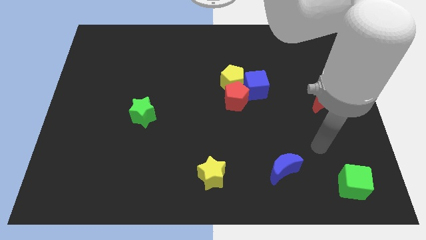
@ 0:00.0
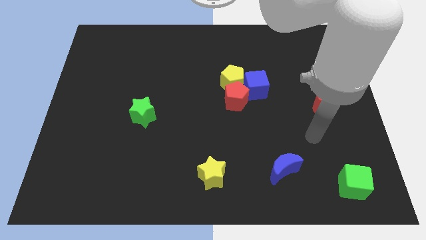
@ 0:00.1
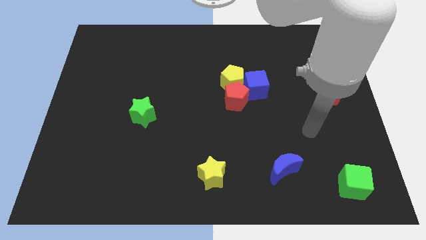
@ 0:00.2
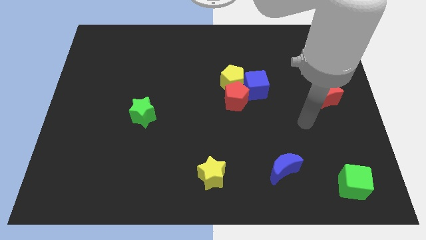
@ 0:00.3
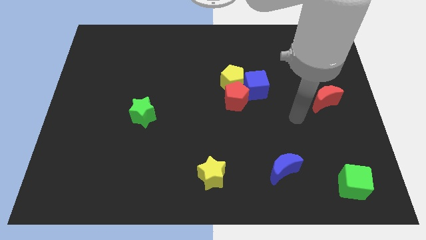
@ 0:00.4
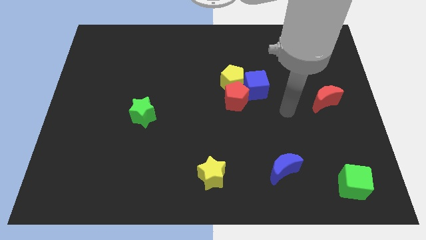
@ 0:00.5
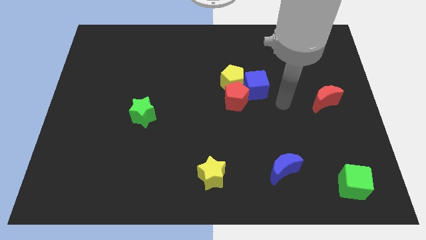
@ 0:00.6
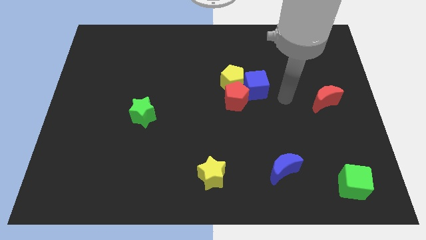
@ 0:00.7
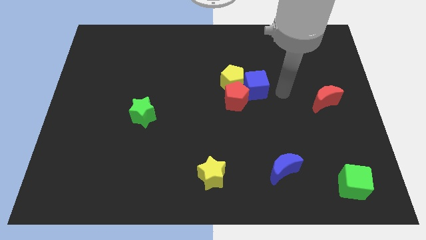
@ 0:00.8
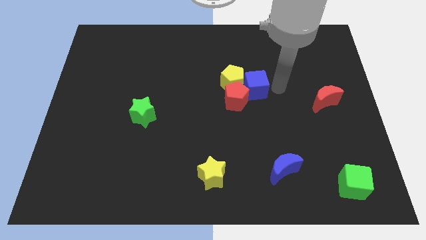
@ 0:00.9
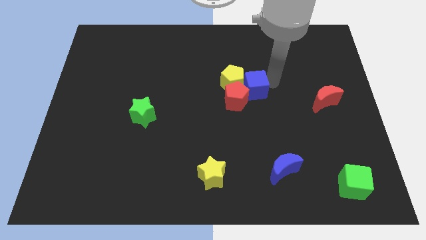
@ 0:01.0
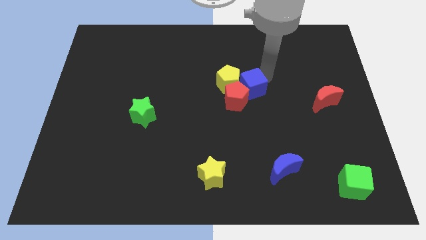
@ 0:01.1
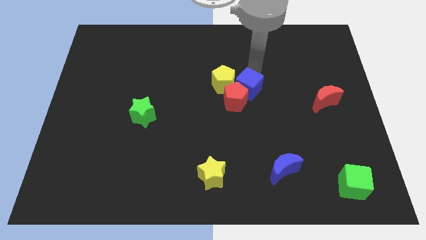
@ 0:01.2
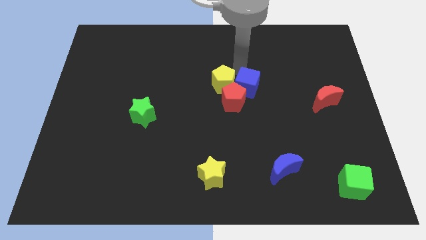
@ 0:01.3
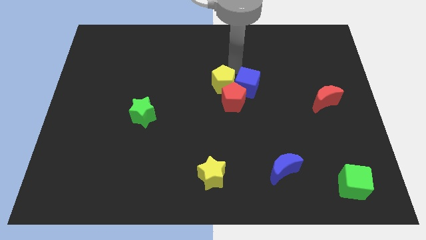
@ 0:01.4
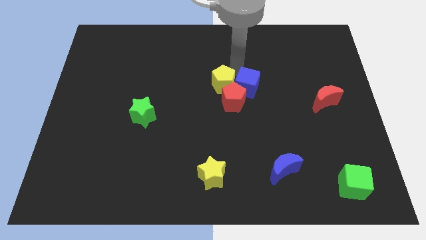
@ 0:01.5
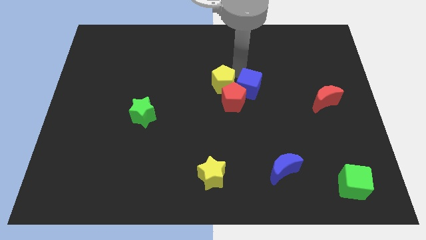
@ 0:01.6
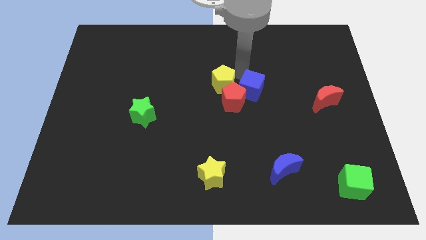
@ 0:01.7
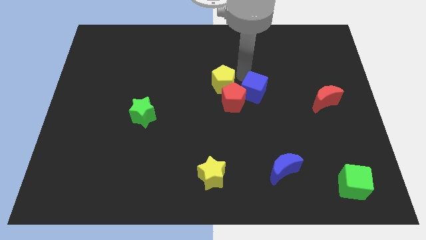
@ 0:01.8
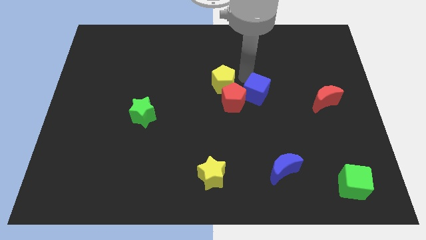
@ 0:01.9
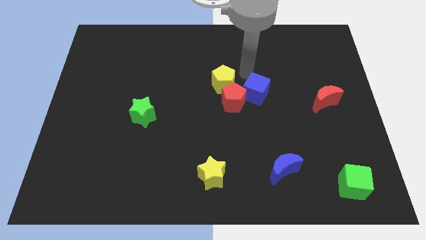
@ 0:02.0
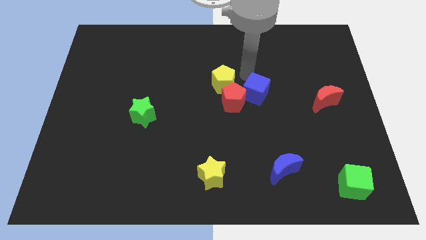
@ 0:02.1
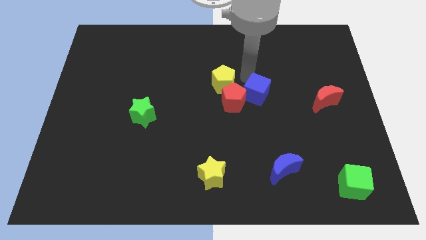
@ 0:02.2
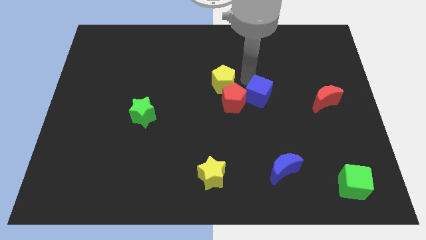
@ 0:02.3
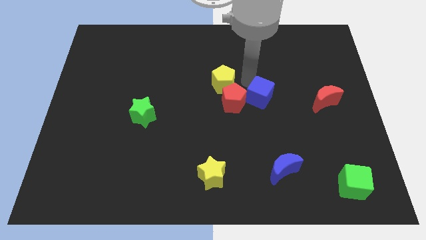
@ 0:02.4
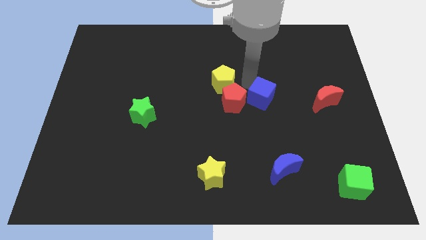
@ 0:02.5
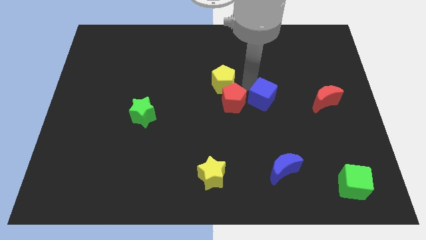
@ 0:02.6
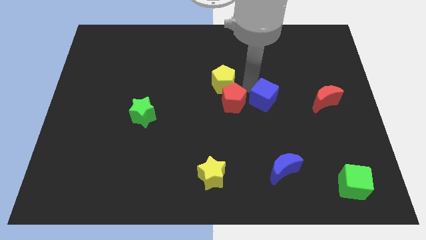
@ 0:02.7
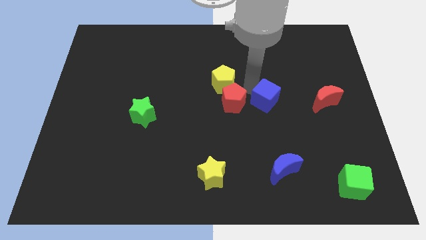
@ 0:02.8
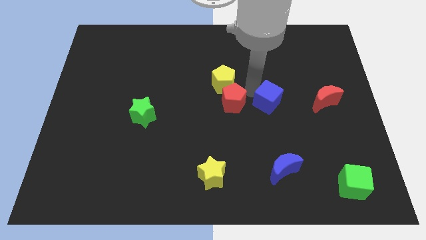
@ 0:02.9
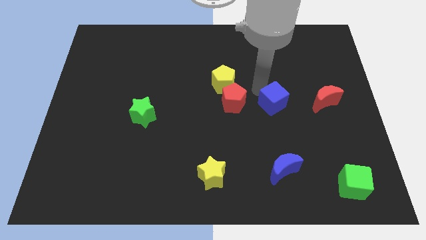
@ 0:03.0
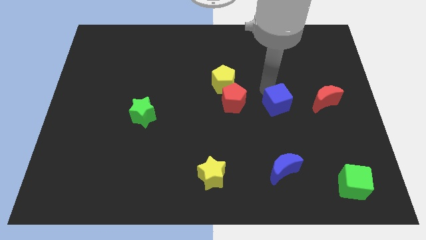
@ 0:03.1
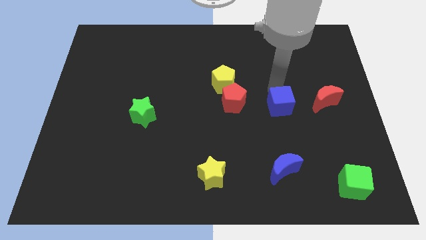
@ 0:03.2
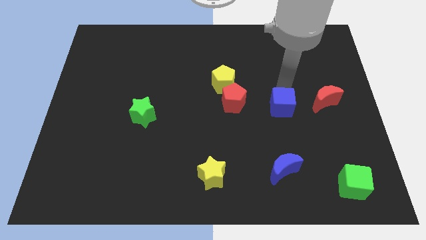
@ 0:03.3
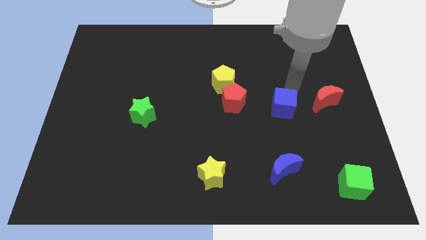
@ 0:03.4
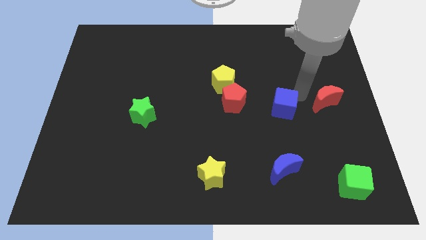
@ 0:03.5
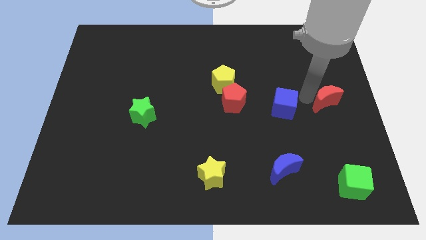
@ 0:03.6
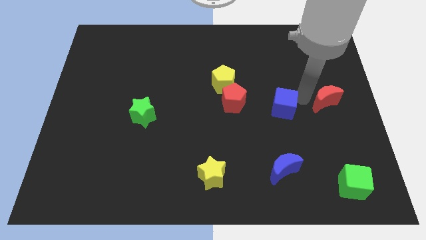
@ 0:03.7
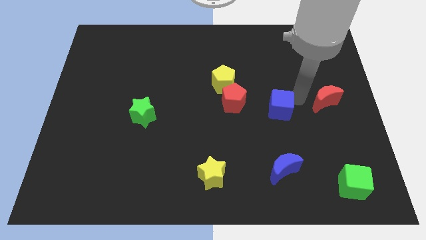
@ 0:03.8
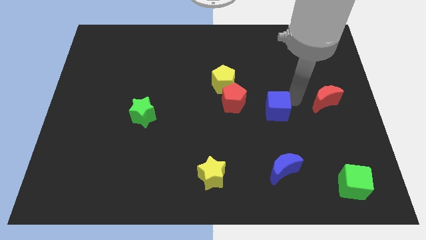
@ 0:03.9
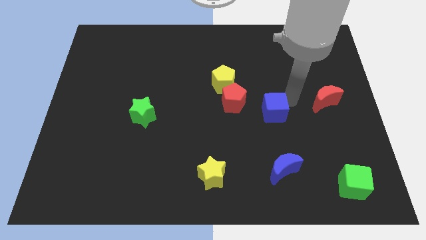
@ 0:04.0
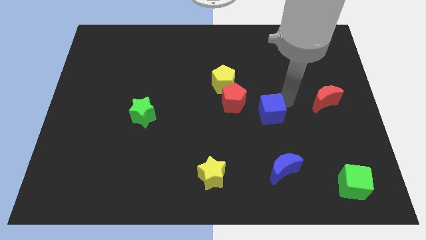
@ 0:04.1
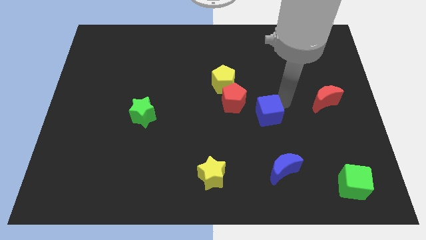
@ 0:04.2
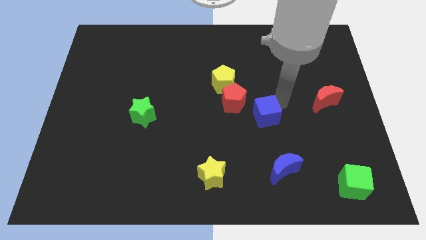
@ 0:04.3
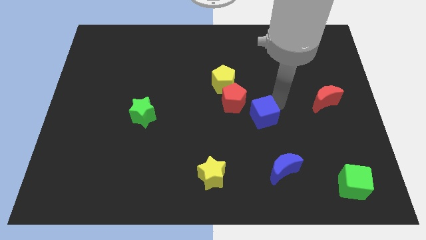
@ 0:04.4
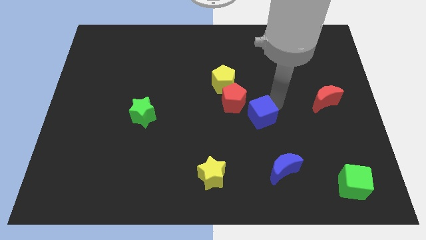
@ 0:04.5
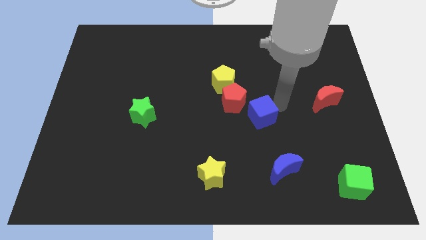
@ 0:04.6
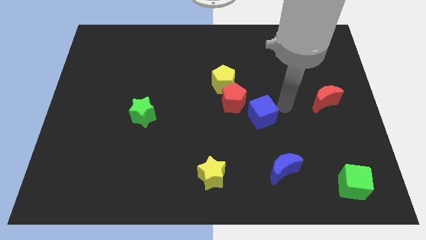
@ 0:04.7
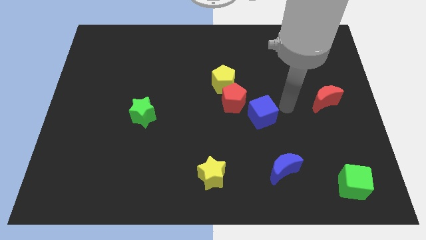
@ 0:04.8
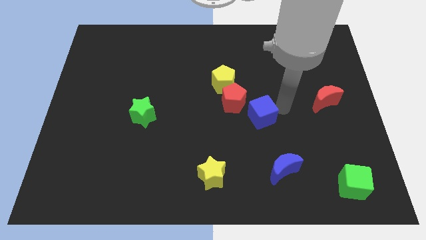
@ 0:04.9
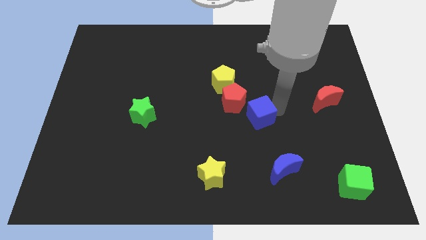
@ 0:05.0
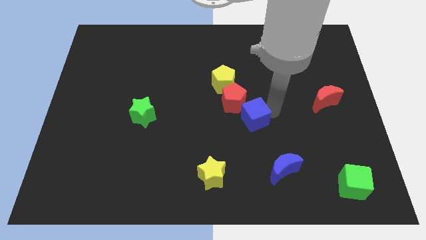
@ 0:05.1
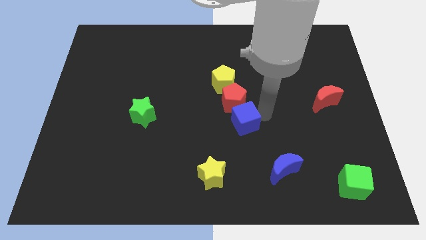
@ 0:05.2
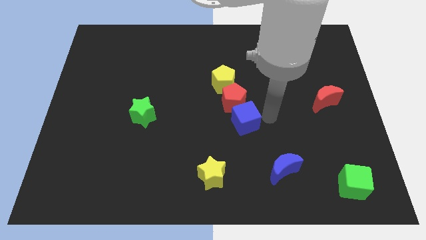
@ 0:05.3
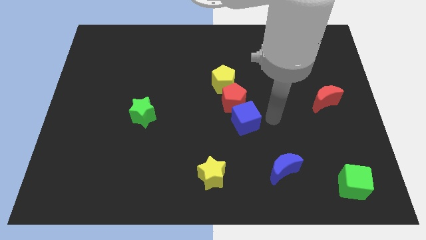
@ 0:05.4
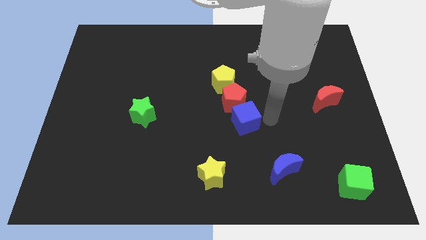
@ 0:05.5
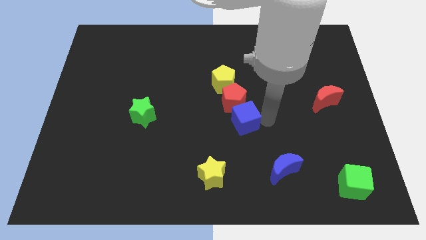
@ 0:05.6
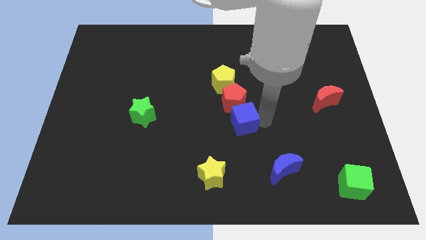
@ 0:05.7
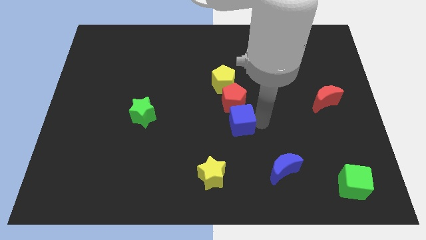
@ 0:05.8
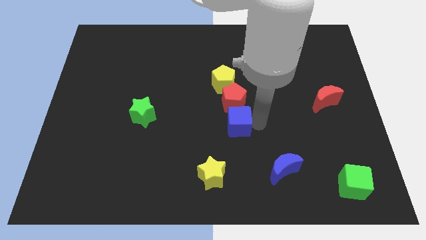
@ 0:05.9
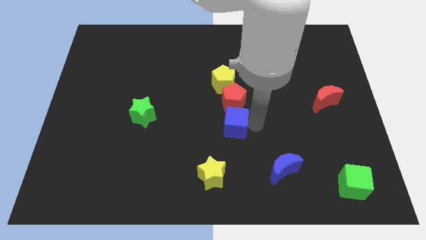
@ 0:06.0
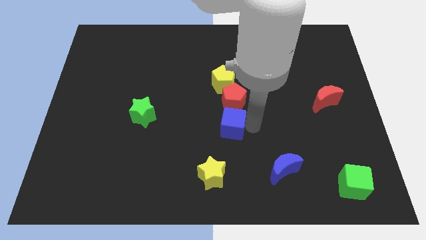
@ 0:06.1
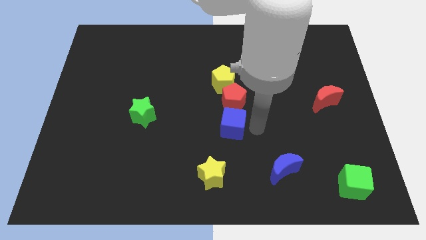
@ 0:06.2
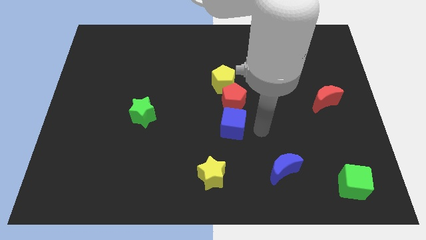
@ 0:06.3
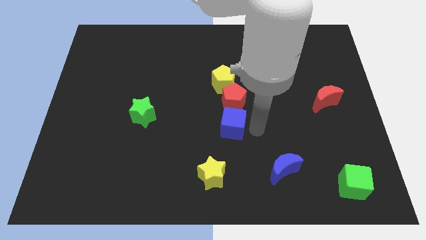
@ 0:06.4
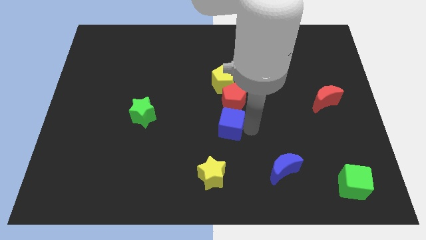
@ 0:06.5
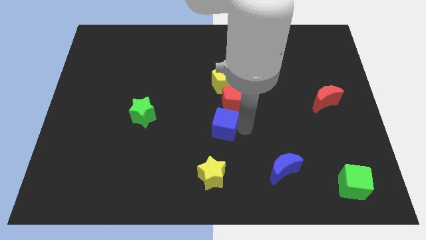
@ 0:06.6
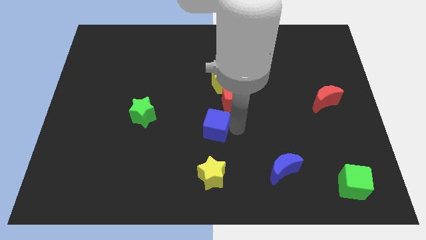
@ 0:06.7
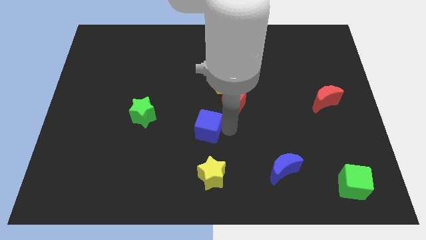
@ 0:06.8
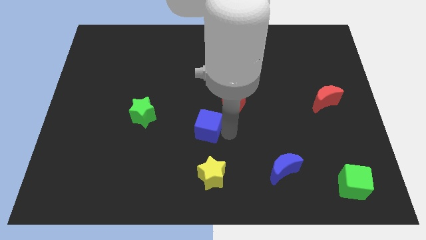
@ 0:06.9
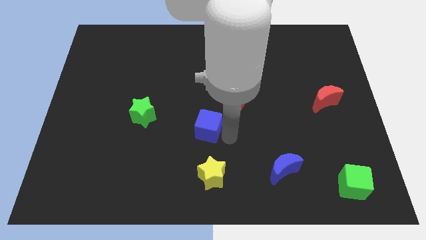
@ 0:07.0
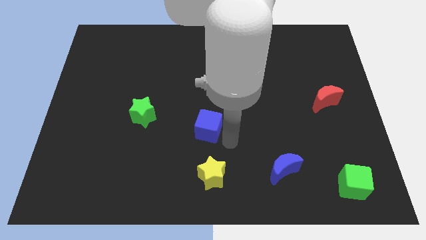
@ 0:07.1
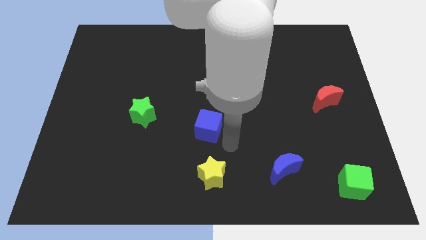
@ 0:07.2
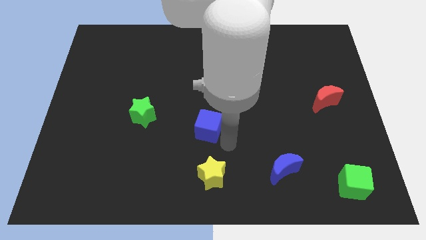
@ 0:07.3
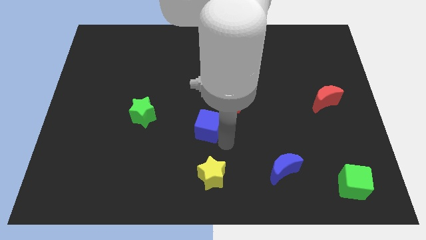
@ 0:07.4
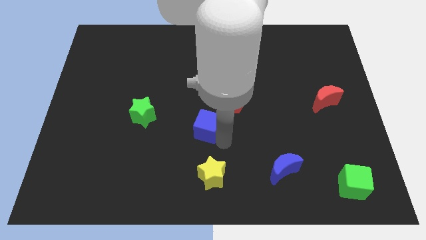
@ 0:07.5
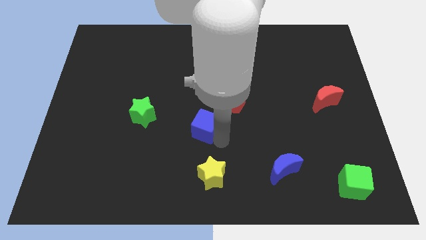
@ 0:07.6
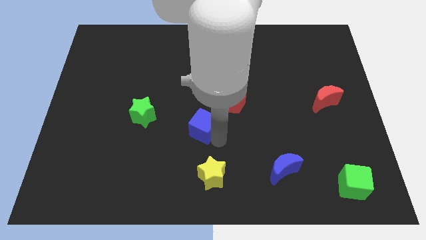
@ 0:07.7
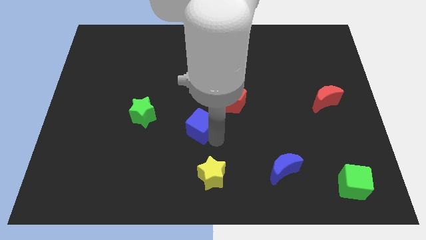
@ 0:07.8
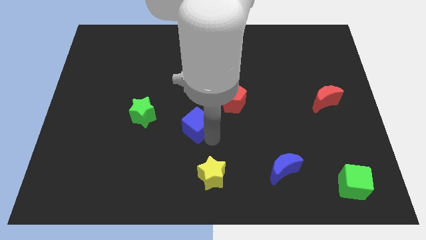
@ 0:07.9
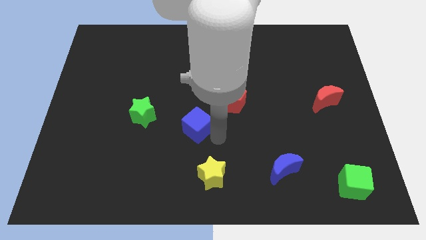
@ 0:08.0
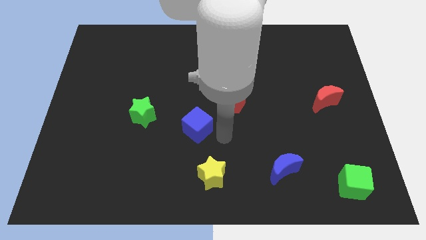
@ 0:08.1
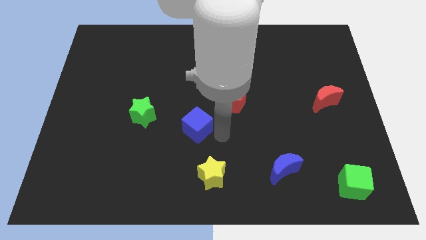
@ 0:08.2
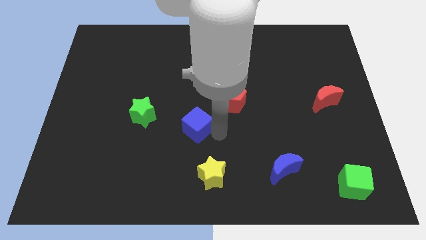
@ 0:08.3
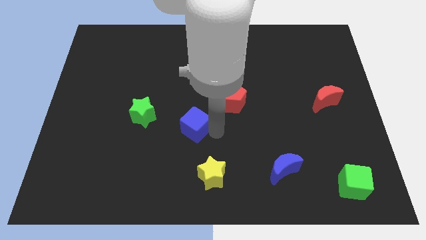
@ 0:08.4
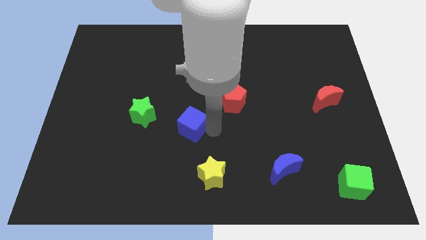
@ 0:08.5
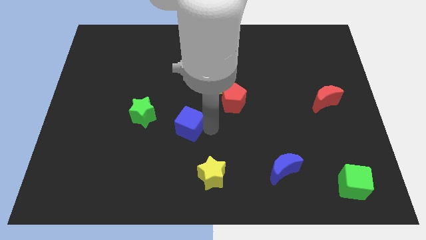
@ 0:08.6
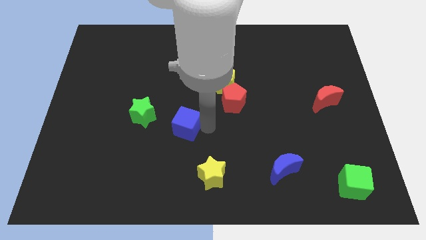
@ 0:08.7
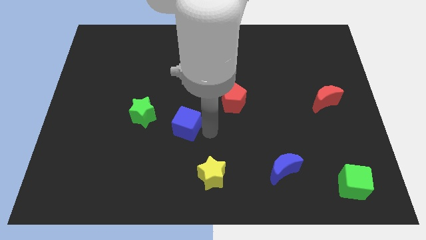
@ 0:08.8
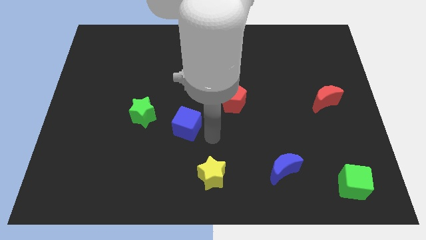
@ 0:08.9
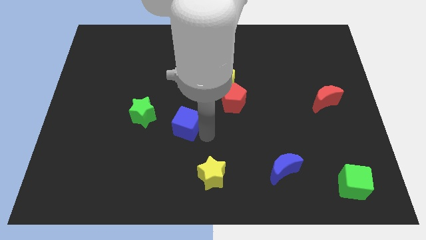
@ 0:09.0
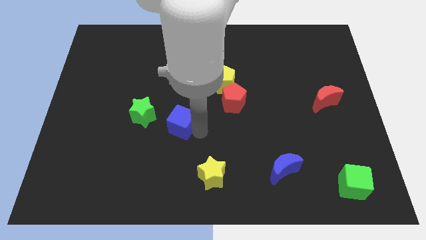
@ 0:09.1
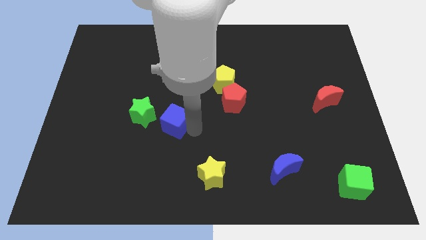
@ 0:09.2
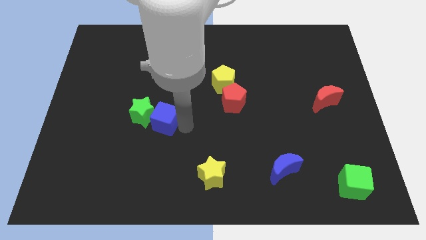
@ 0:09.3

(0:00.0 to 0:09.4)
move the blue cube towards the green star
